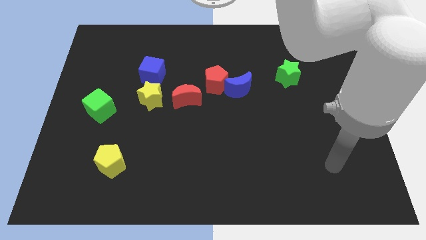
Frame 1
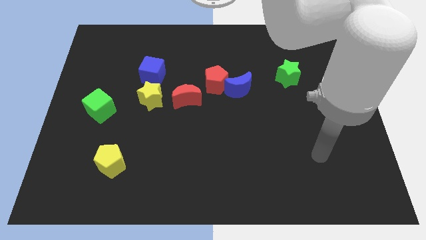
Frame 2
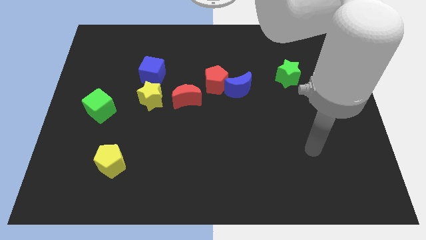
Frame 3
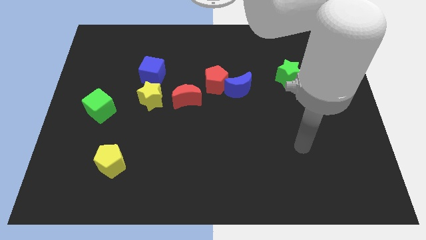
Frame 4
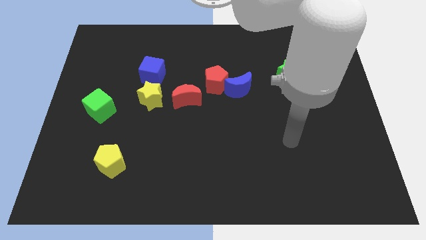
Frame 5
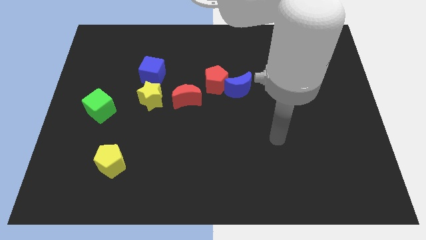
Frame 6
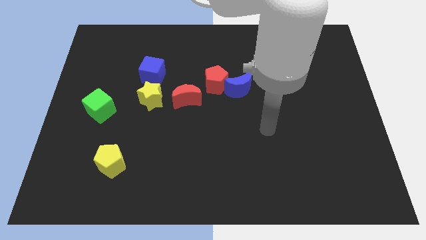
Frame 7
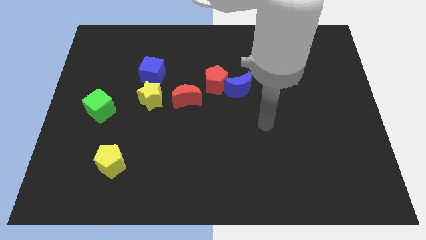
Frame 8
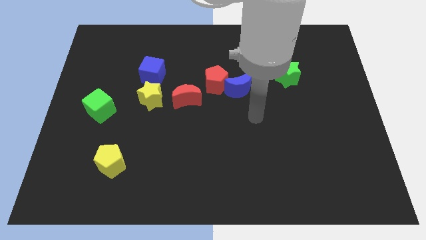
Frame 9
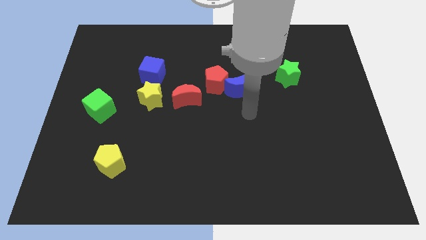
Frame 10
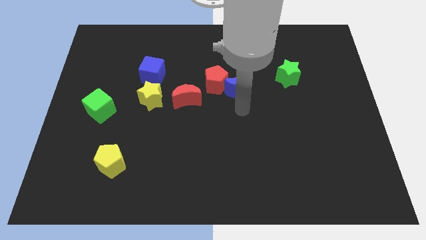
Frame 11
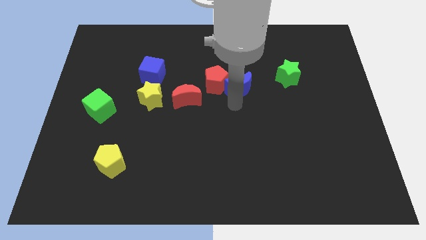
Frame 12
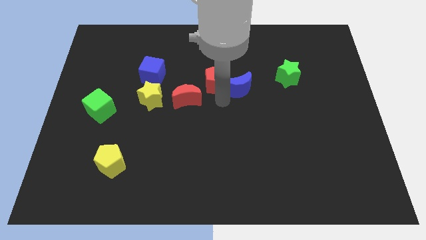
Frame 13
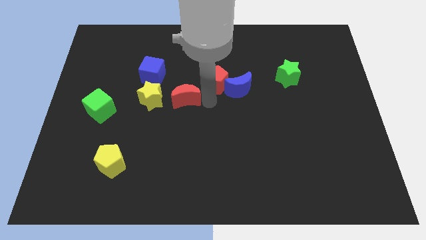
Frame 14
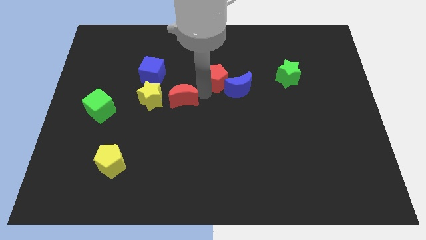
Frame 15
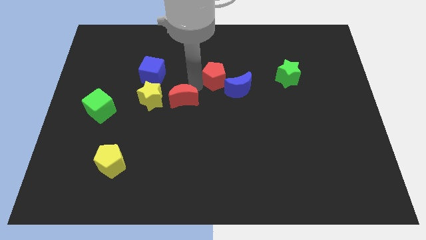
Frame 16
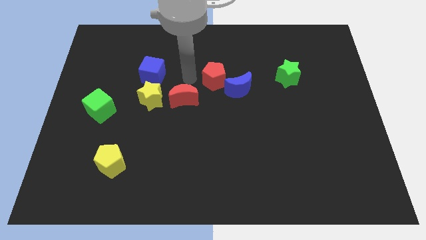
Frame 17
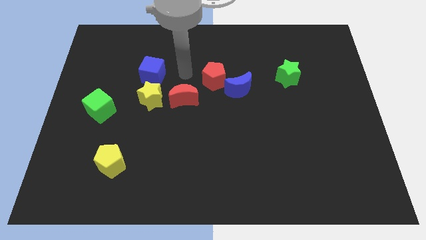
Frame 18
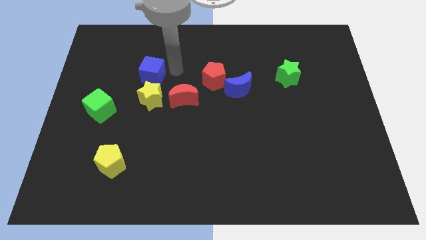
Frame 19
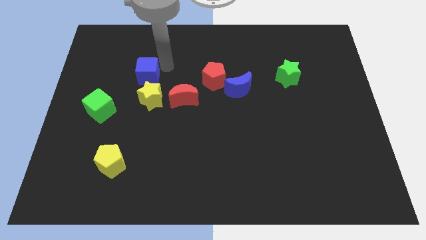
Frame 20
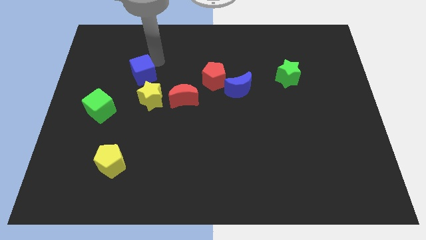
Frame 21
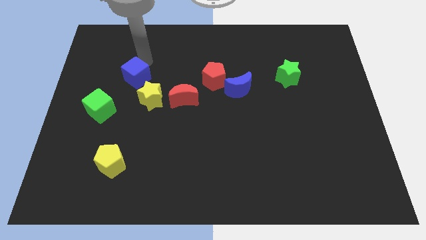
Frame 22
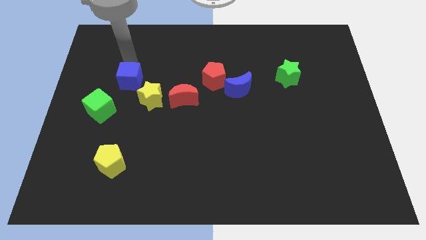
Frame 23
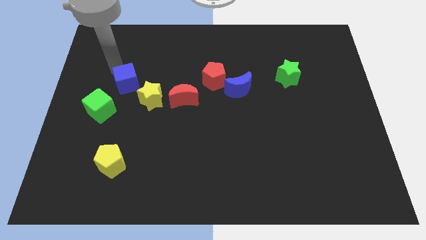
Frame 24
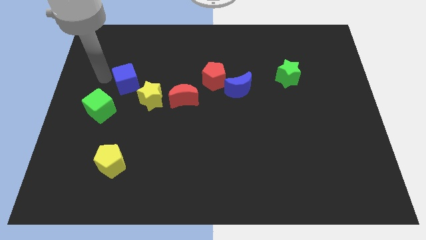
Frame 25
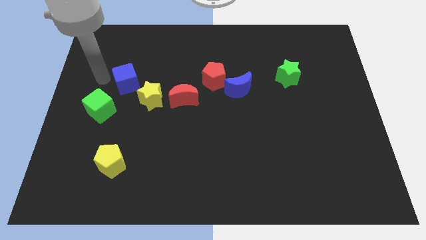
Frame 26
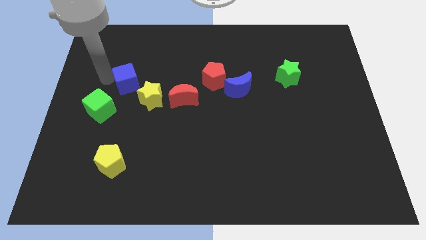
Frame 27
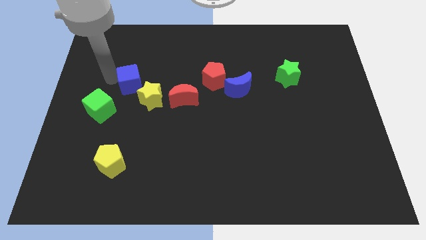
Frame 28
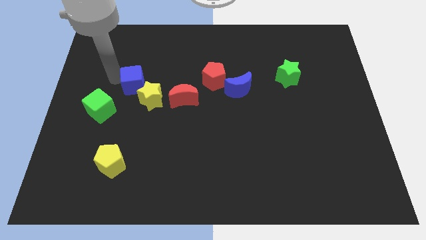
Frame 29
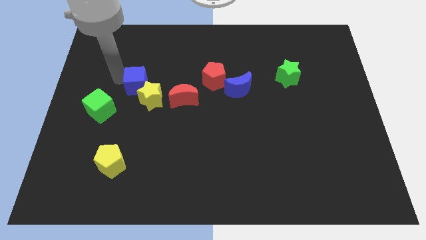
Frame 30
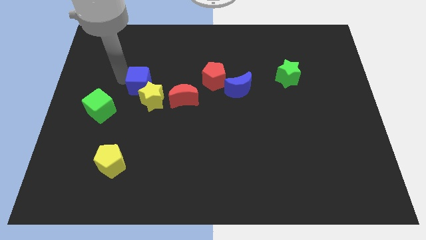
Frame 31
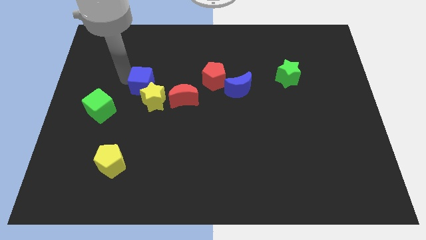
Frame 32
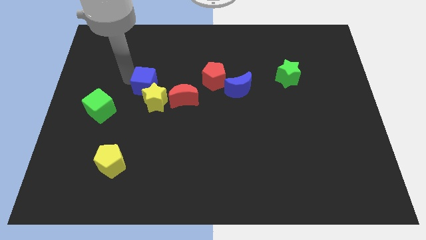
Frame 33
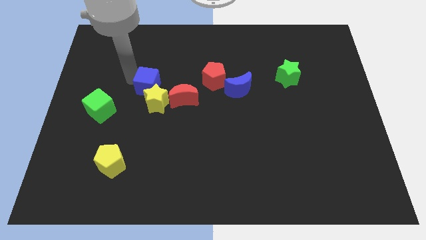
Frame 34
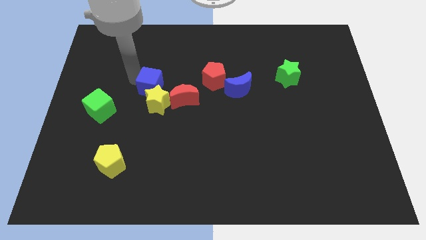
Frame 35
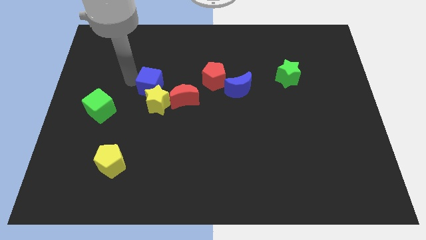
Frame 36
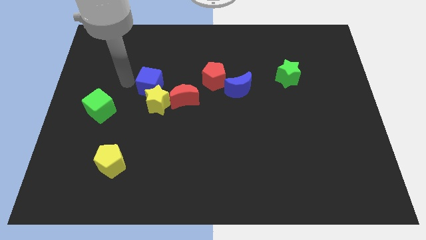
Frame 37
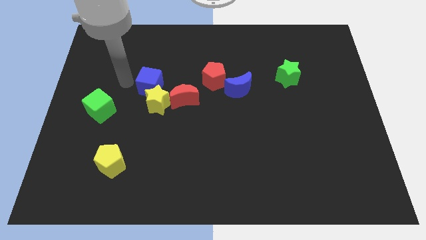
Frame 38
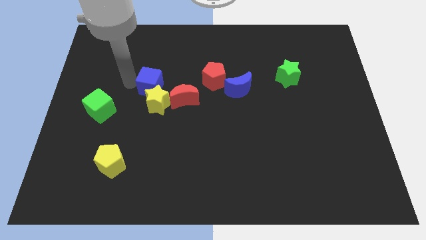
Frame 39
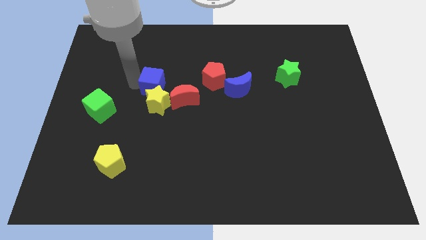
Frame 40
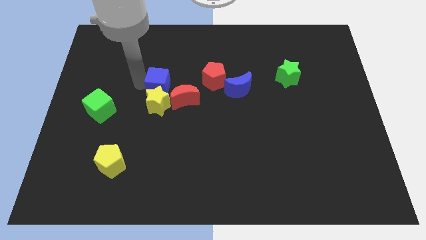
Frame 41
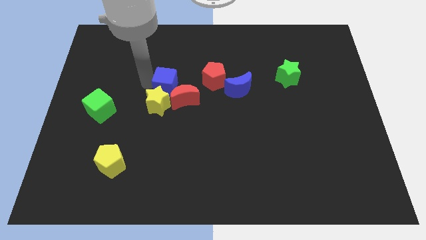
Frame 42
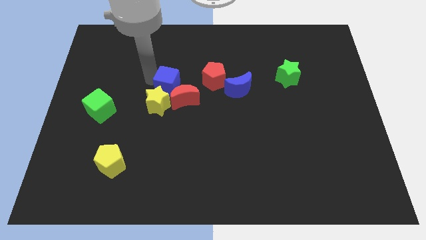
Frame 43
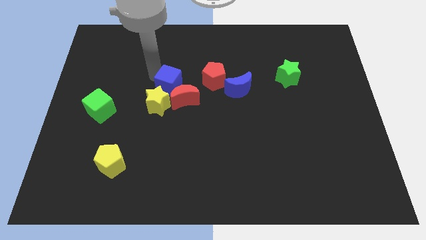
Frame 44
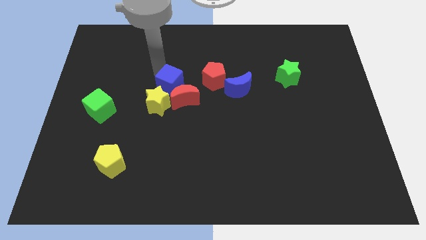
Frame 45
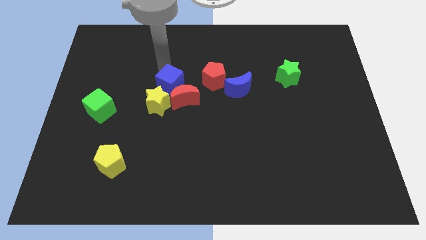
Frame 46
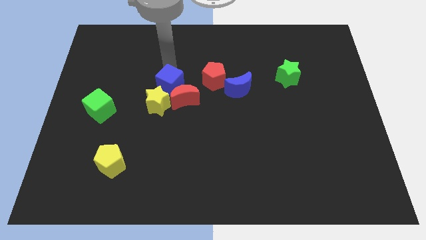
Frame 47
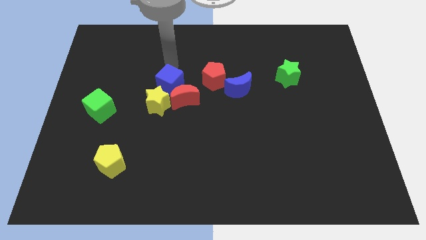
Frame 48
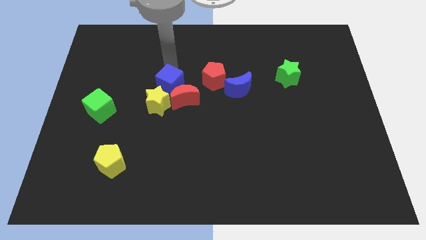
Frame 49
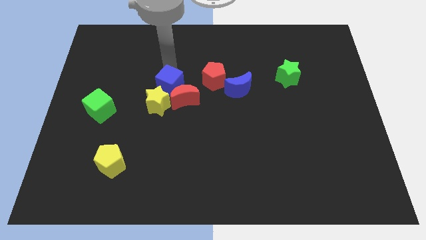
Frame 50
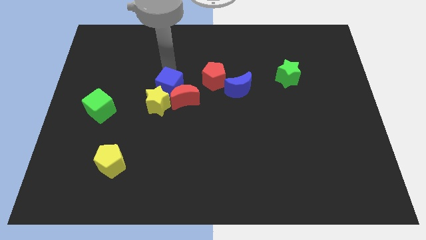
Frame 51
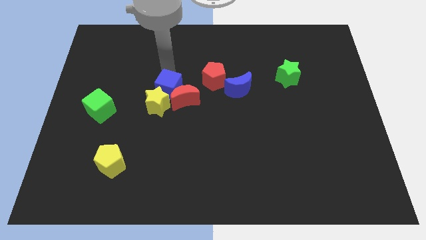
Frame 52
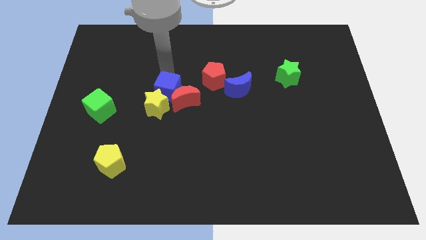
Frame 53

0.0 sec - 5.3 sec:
push the blue cube diagonally downwards and to the right somewhat

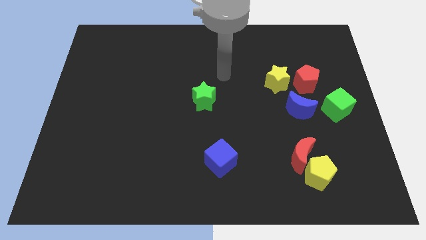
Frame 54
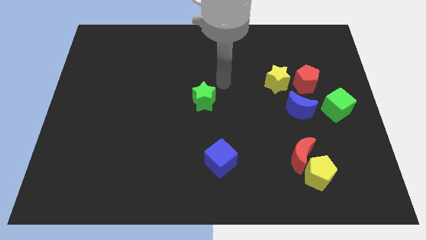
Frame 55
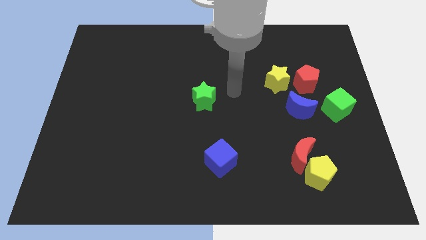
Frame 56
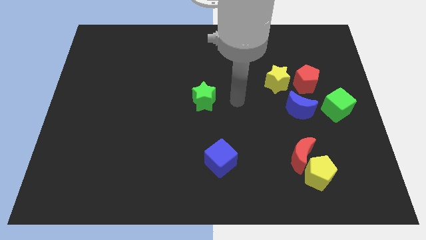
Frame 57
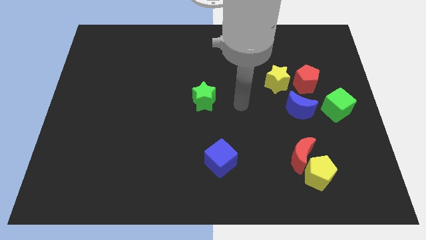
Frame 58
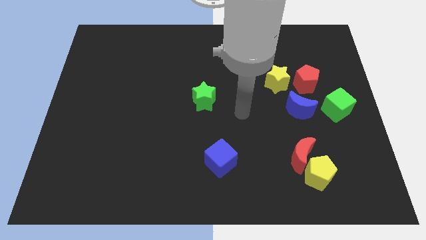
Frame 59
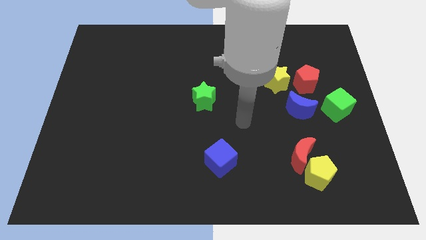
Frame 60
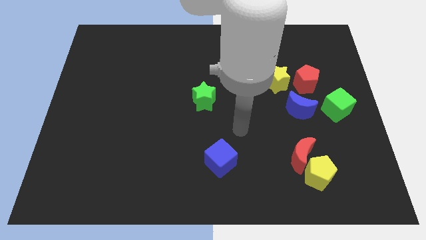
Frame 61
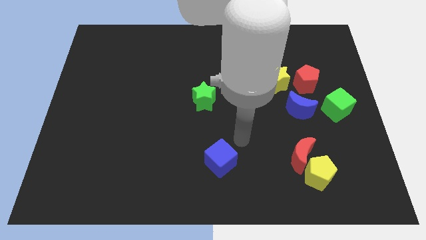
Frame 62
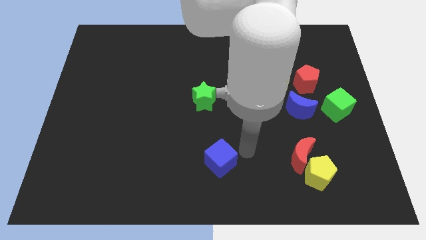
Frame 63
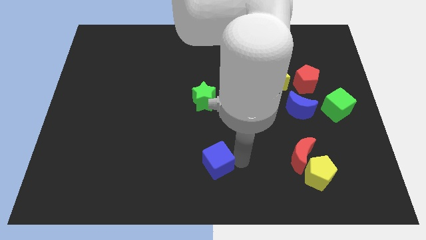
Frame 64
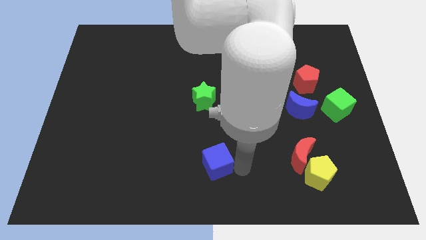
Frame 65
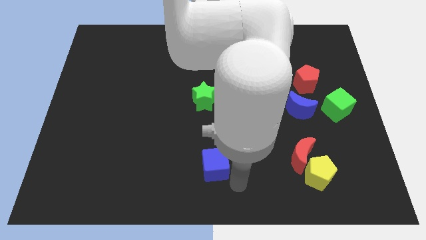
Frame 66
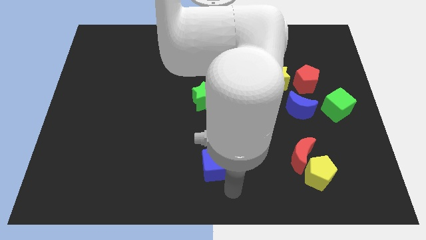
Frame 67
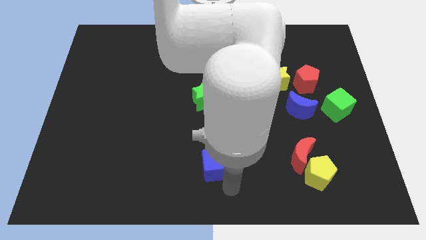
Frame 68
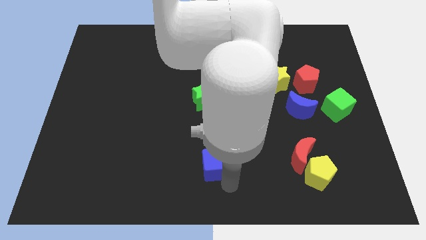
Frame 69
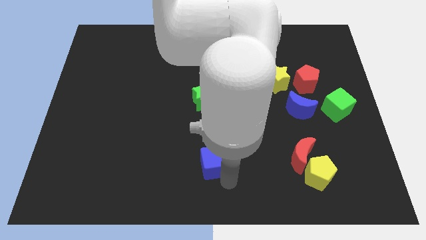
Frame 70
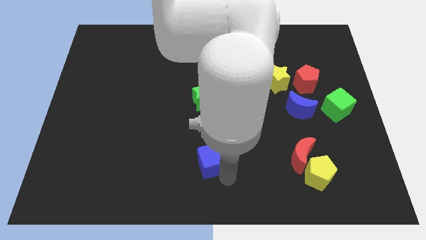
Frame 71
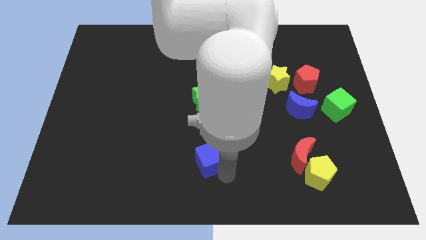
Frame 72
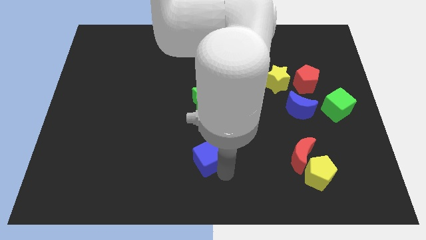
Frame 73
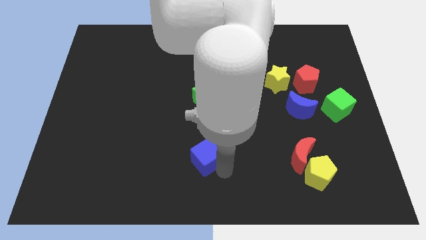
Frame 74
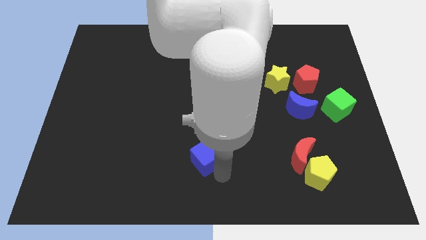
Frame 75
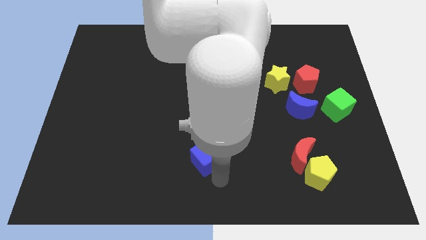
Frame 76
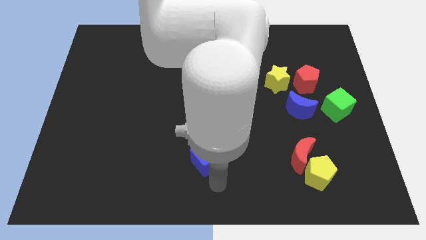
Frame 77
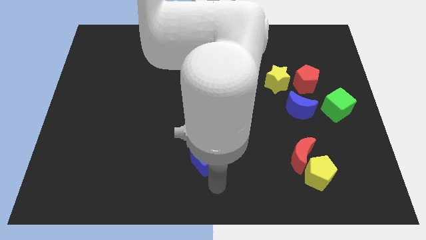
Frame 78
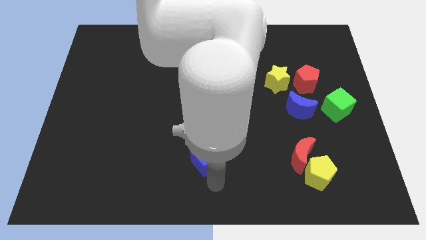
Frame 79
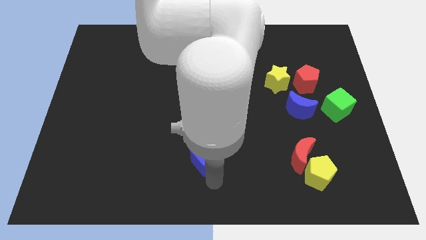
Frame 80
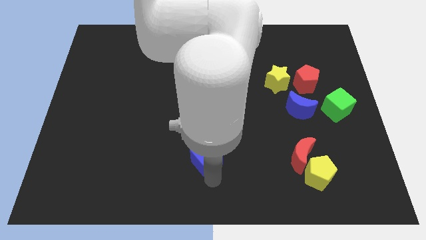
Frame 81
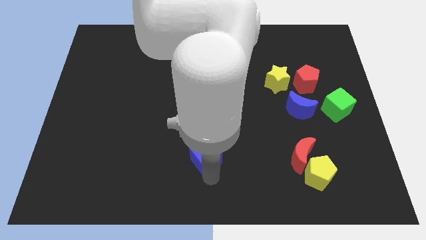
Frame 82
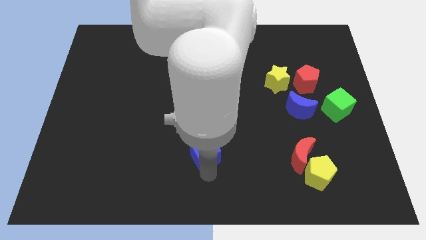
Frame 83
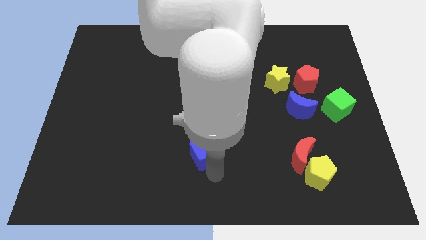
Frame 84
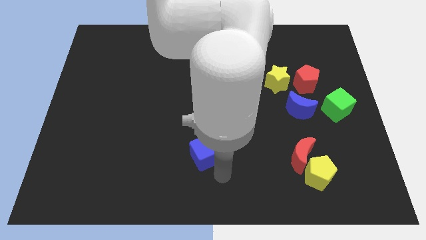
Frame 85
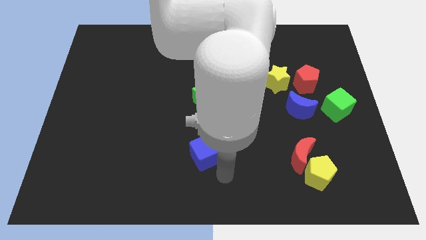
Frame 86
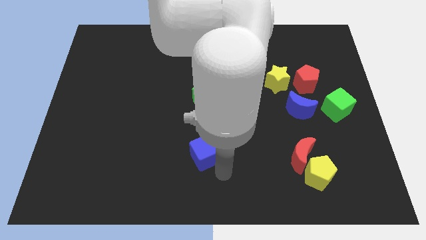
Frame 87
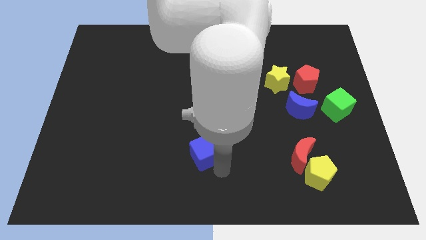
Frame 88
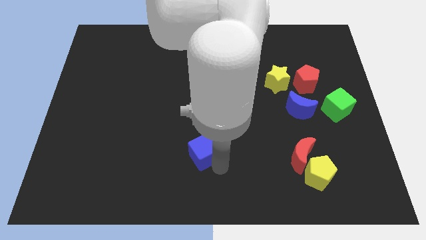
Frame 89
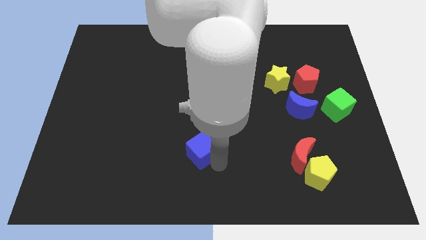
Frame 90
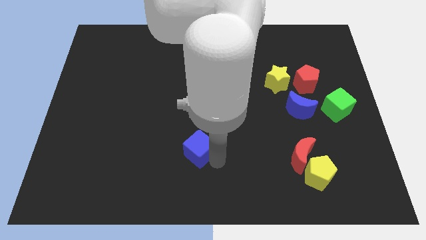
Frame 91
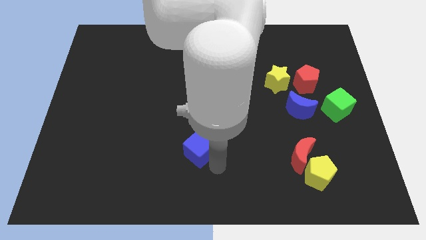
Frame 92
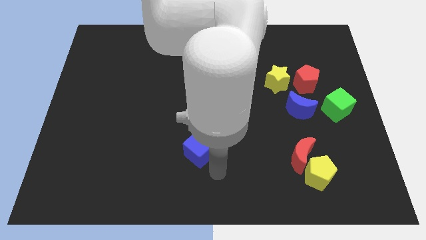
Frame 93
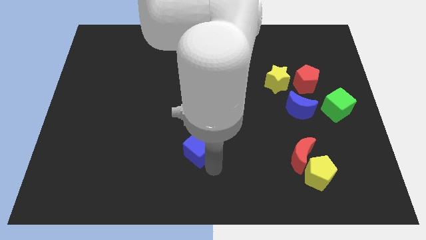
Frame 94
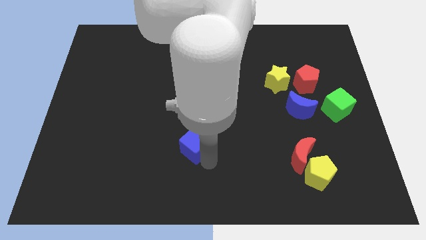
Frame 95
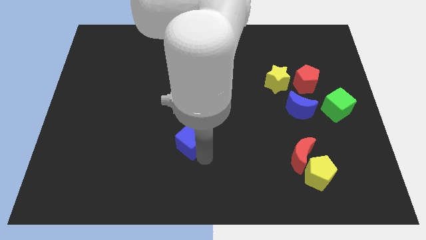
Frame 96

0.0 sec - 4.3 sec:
push the blue cube diagonally upwards and left somewhat
